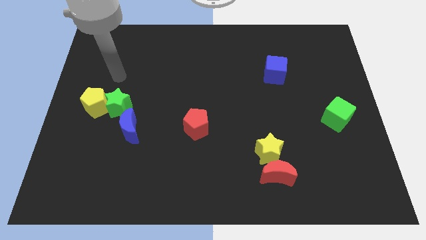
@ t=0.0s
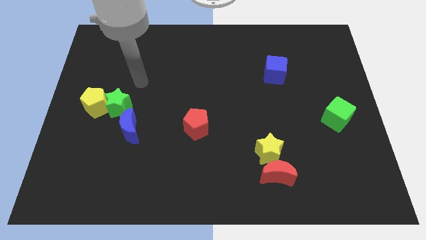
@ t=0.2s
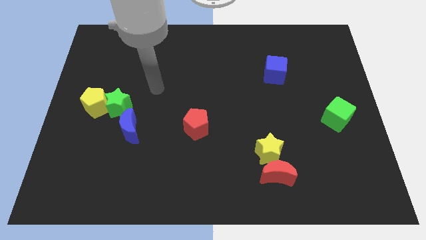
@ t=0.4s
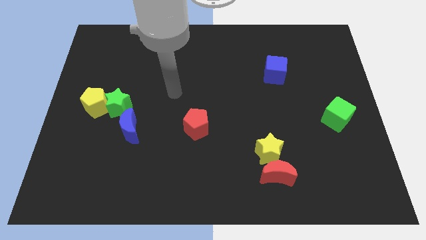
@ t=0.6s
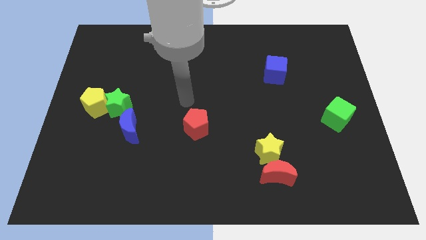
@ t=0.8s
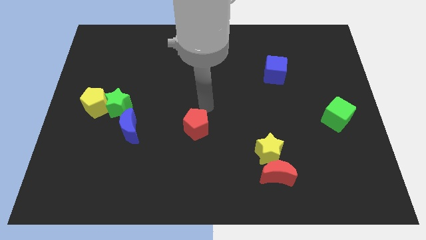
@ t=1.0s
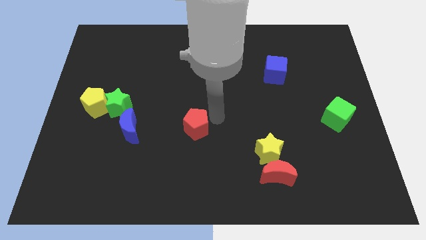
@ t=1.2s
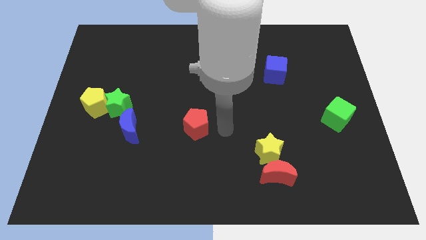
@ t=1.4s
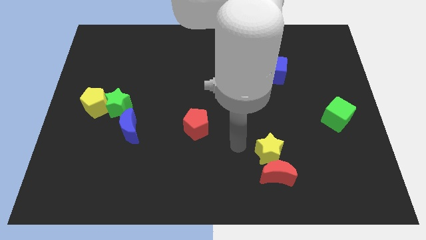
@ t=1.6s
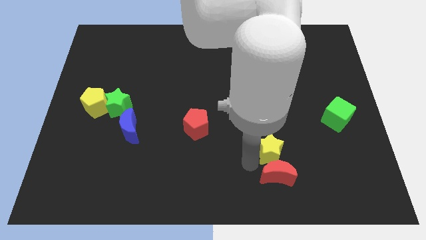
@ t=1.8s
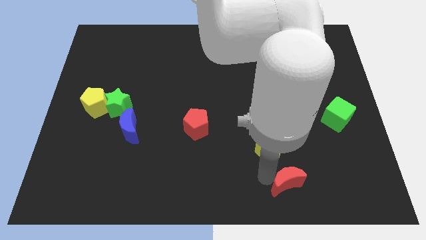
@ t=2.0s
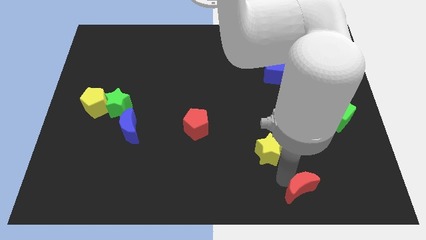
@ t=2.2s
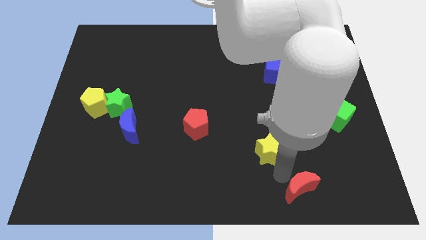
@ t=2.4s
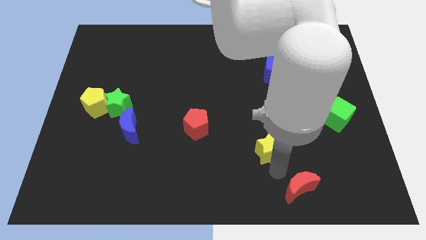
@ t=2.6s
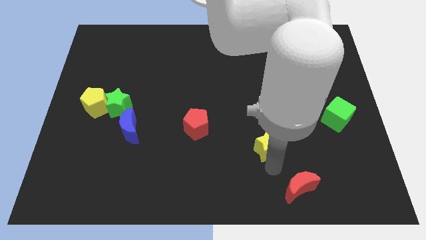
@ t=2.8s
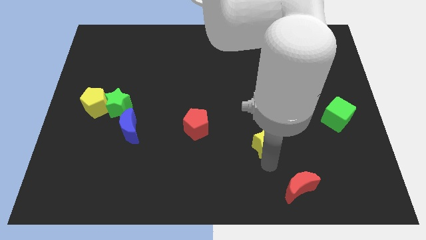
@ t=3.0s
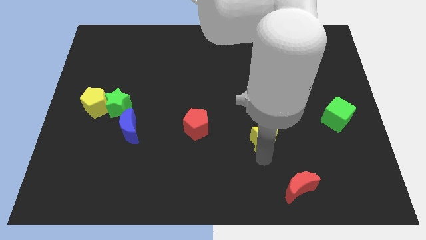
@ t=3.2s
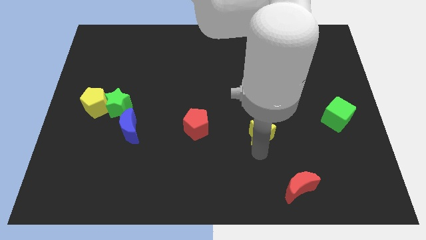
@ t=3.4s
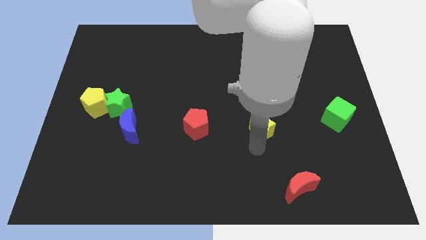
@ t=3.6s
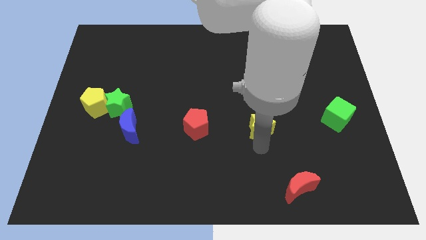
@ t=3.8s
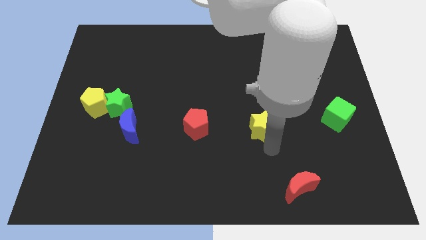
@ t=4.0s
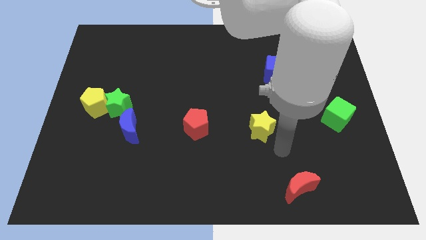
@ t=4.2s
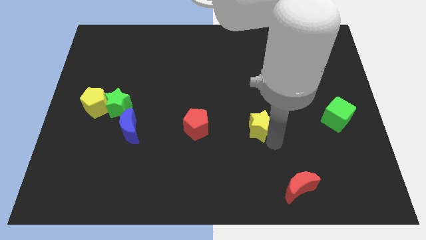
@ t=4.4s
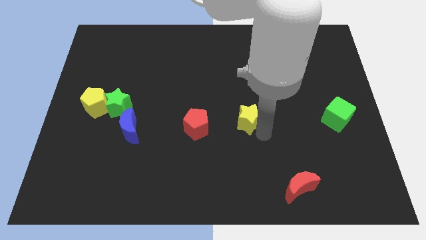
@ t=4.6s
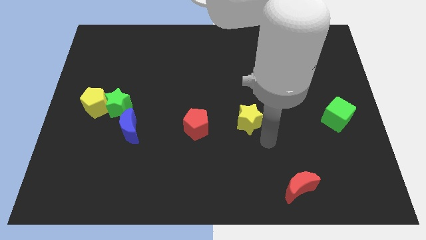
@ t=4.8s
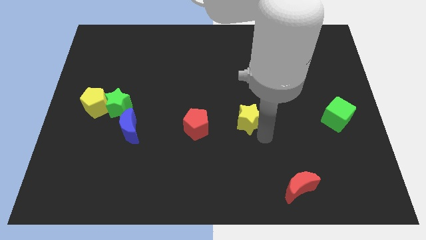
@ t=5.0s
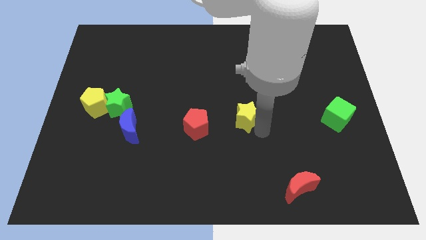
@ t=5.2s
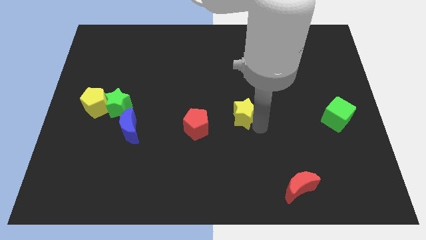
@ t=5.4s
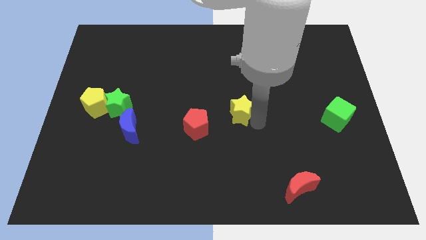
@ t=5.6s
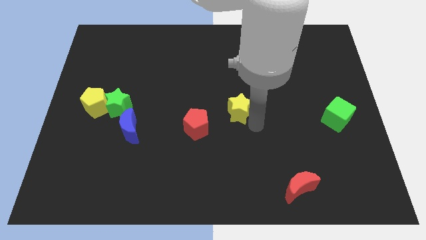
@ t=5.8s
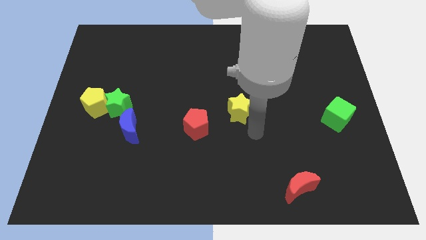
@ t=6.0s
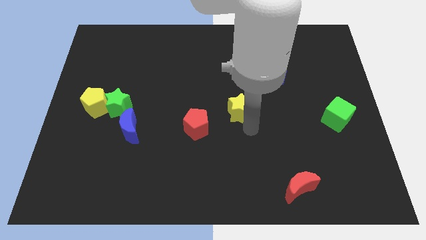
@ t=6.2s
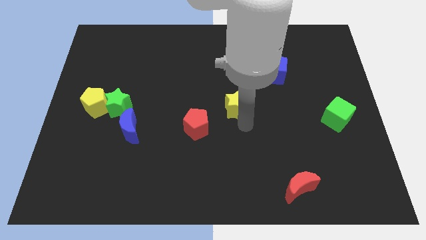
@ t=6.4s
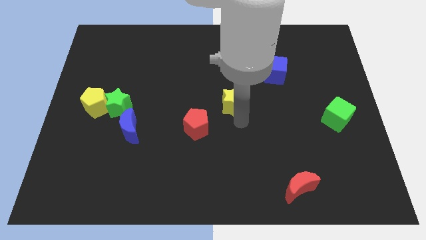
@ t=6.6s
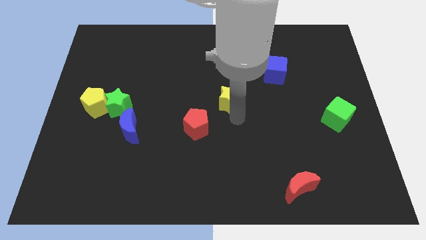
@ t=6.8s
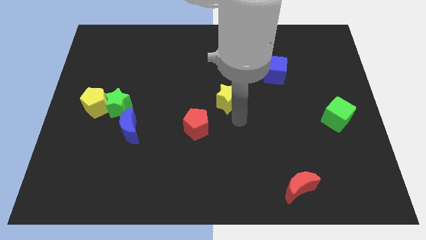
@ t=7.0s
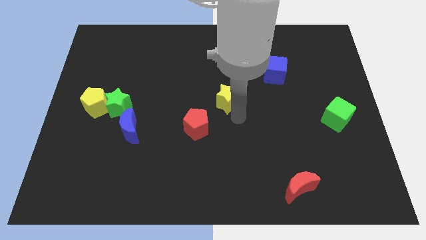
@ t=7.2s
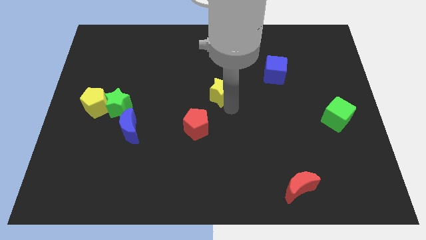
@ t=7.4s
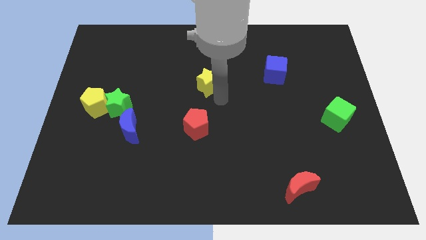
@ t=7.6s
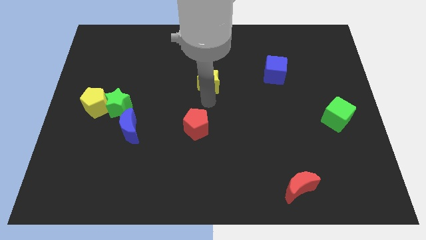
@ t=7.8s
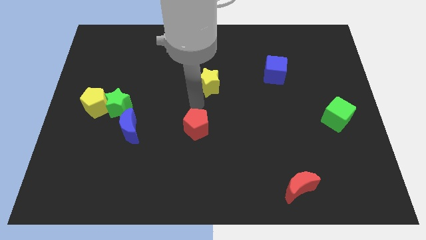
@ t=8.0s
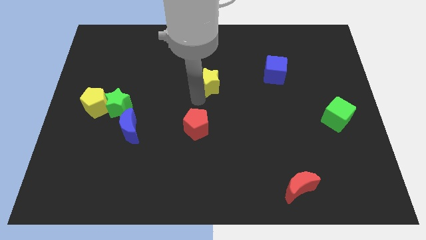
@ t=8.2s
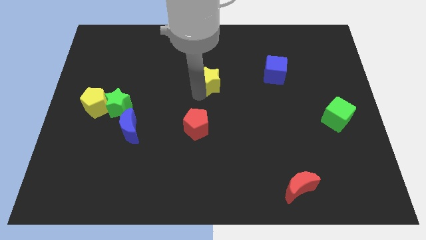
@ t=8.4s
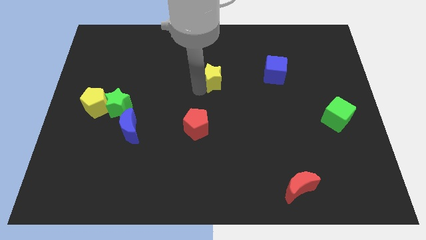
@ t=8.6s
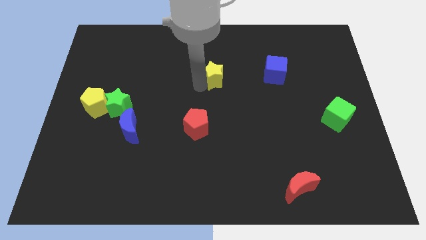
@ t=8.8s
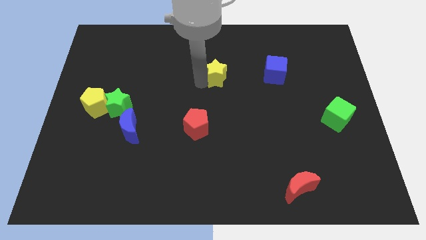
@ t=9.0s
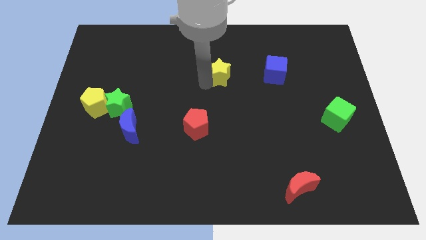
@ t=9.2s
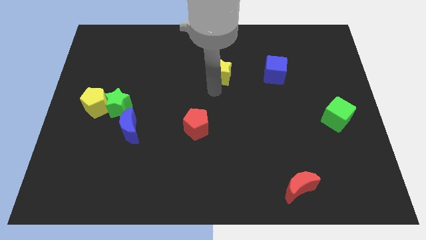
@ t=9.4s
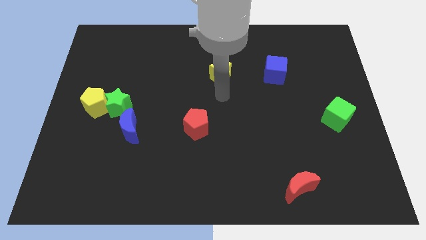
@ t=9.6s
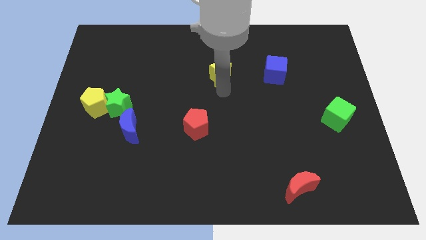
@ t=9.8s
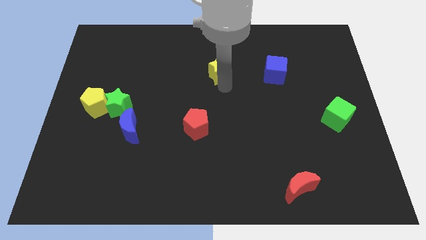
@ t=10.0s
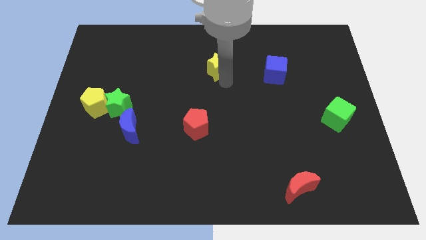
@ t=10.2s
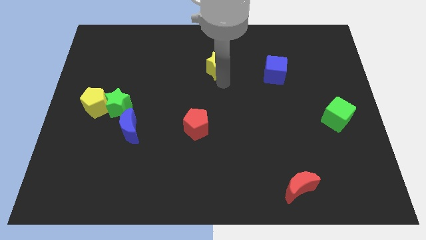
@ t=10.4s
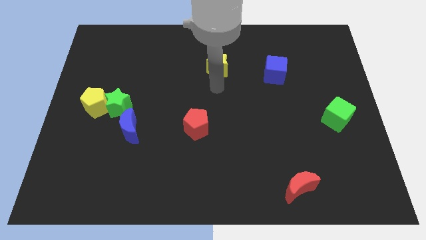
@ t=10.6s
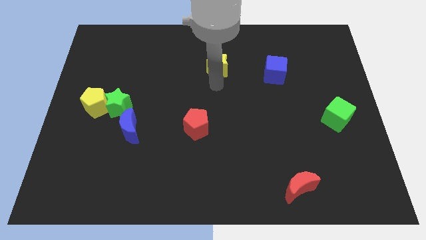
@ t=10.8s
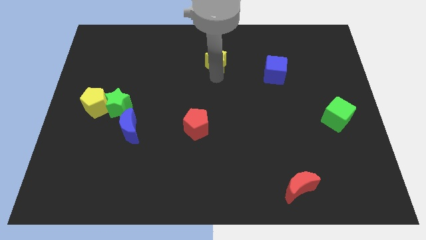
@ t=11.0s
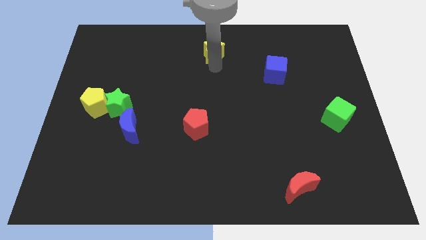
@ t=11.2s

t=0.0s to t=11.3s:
push the yellow star to the top side

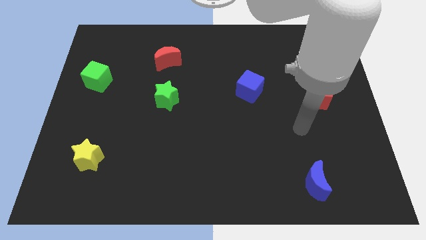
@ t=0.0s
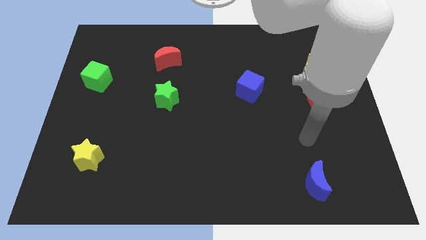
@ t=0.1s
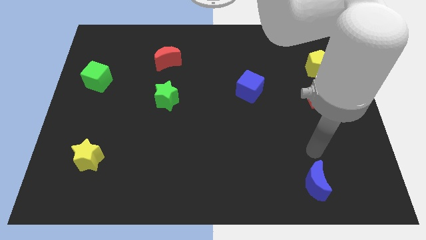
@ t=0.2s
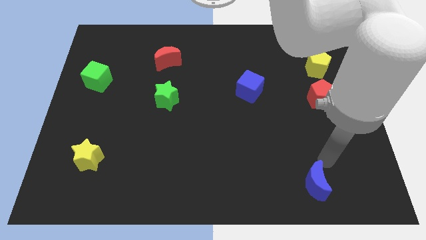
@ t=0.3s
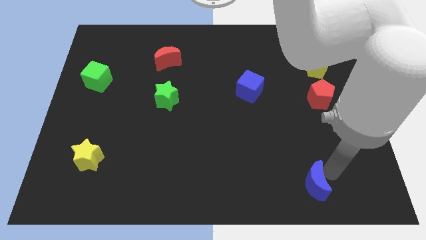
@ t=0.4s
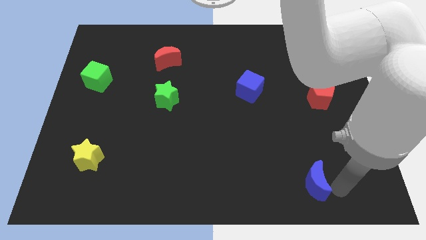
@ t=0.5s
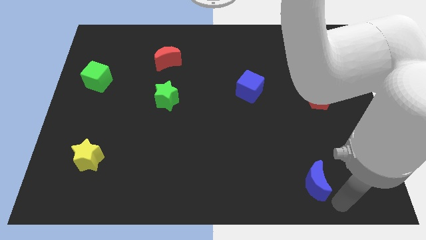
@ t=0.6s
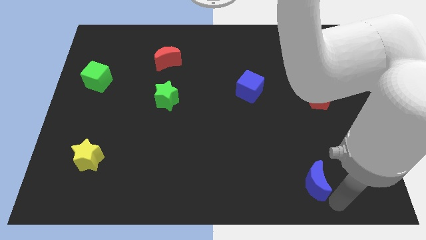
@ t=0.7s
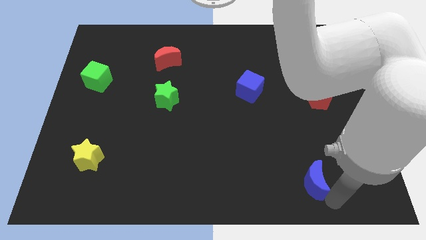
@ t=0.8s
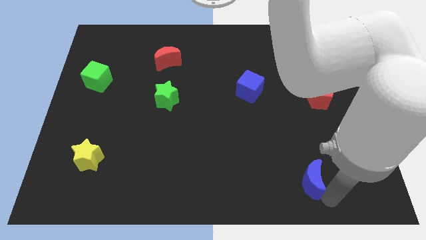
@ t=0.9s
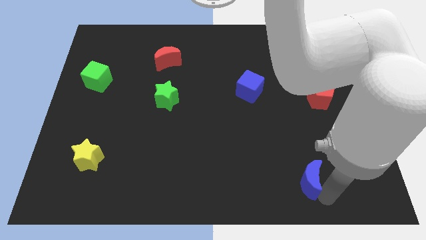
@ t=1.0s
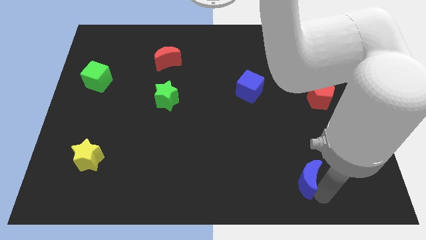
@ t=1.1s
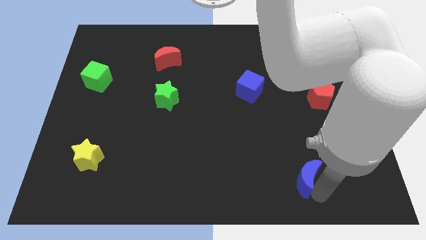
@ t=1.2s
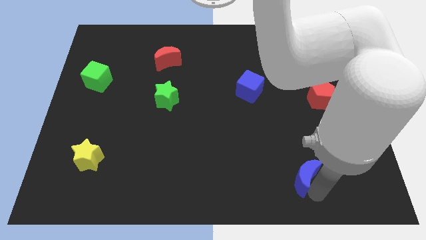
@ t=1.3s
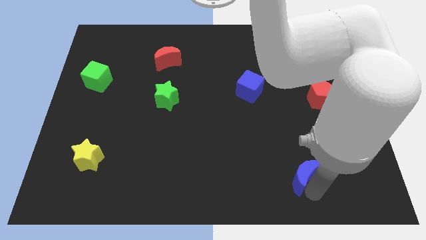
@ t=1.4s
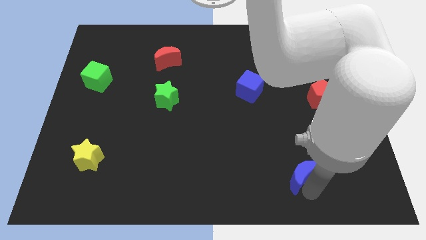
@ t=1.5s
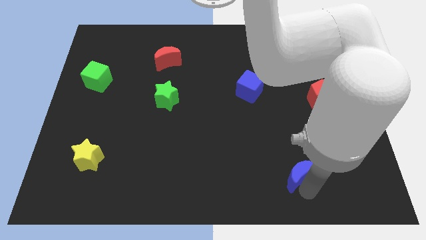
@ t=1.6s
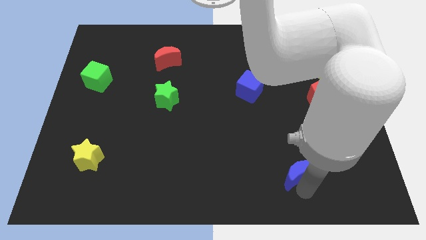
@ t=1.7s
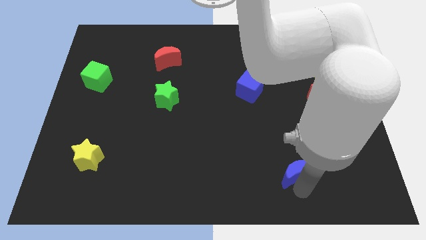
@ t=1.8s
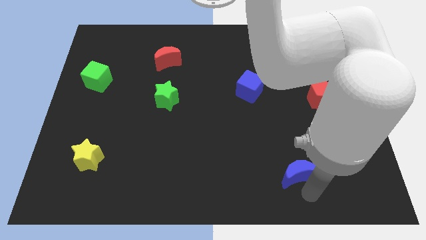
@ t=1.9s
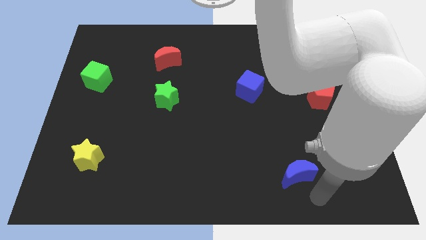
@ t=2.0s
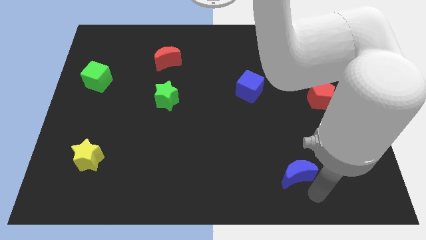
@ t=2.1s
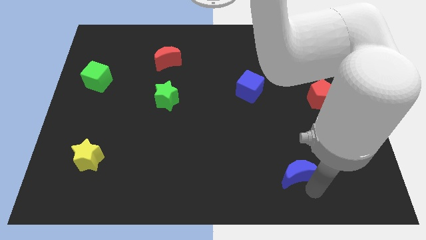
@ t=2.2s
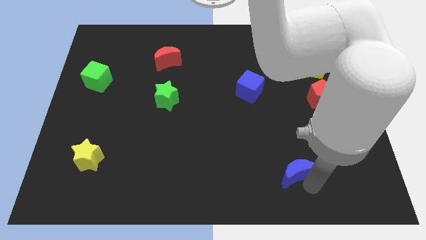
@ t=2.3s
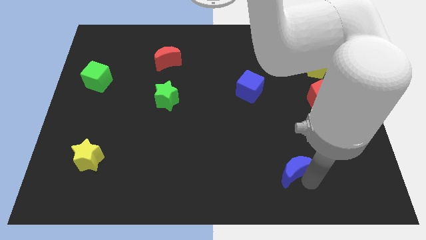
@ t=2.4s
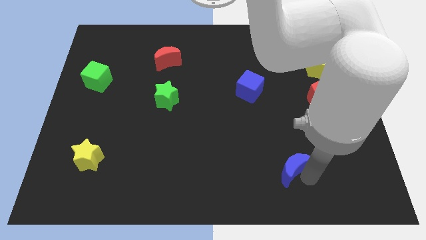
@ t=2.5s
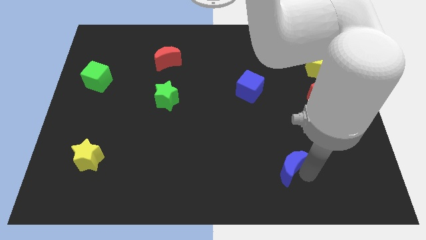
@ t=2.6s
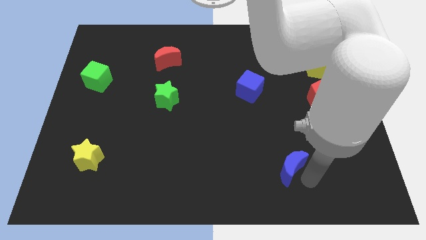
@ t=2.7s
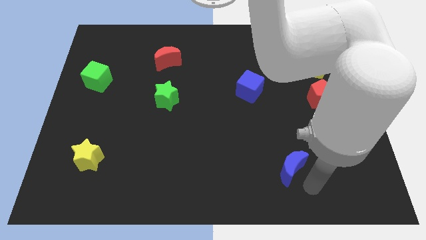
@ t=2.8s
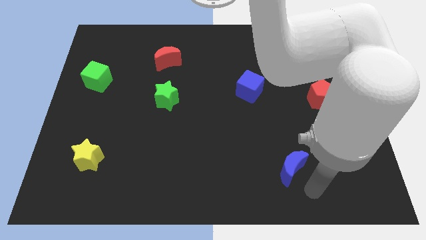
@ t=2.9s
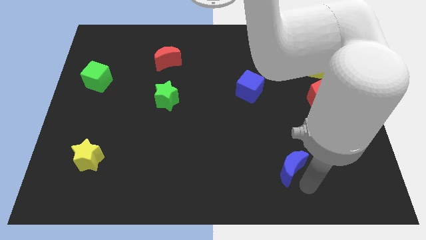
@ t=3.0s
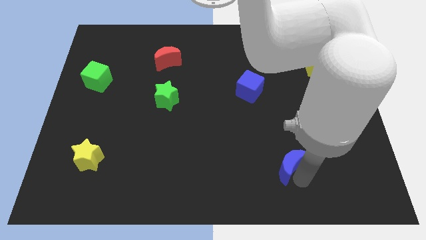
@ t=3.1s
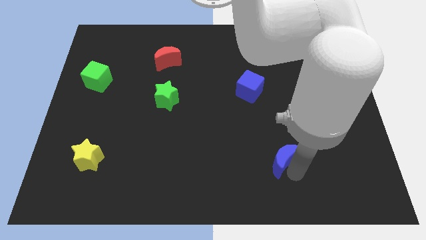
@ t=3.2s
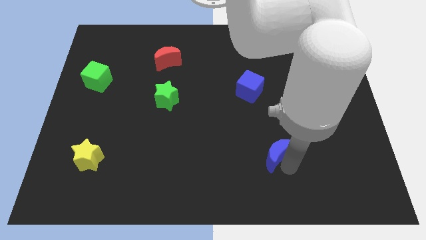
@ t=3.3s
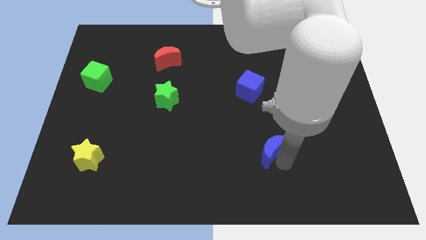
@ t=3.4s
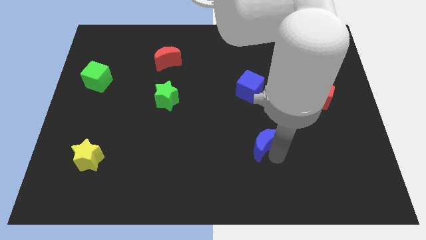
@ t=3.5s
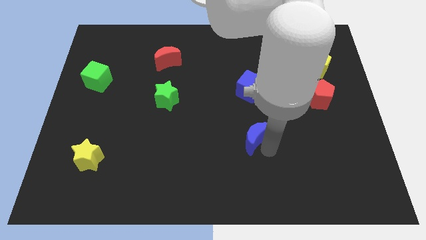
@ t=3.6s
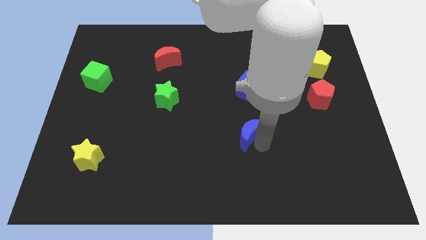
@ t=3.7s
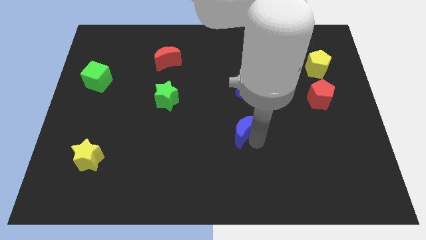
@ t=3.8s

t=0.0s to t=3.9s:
put the blue moon to the center of the board
